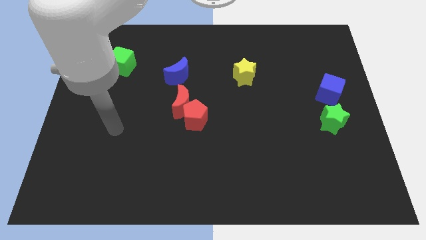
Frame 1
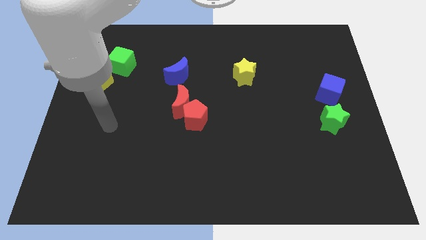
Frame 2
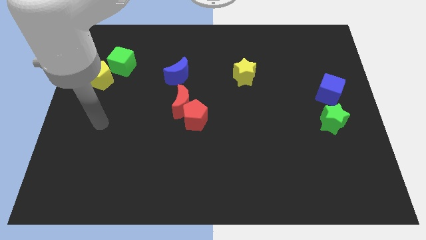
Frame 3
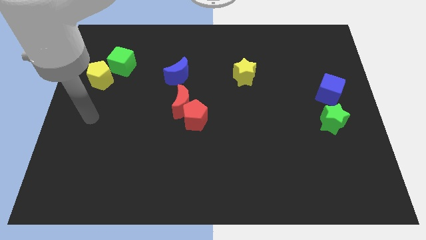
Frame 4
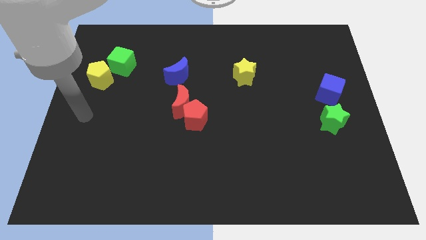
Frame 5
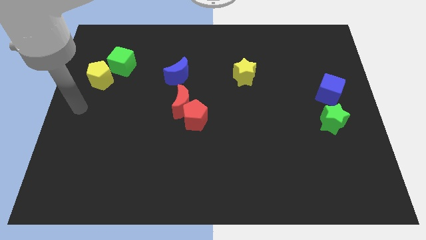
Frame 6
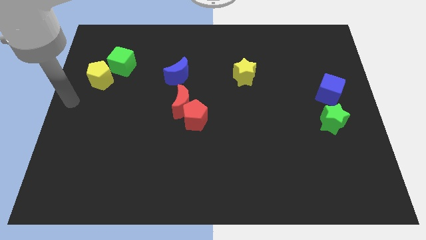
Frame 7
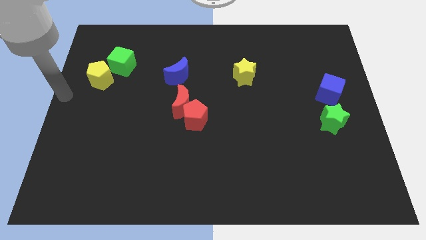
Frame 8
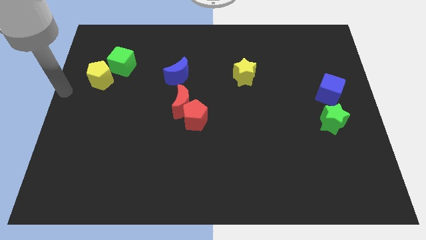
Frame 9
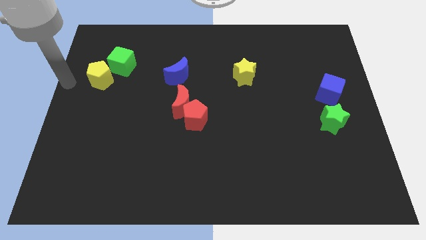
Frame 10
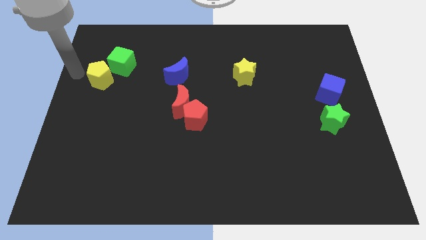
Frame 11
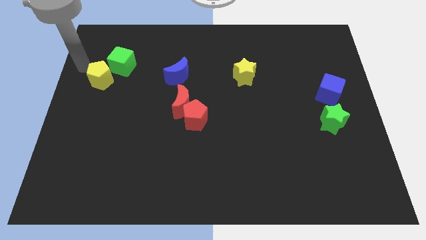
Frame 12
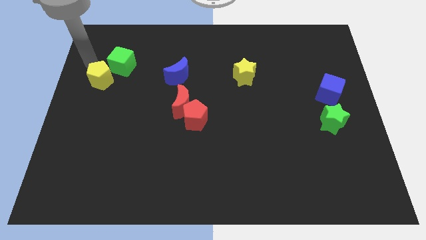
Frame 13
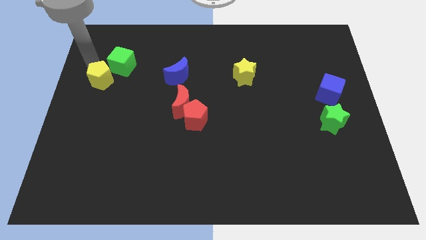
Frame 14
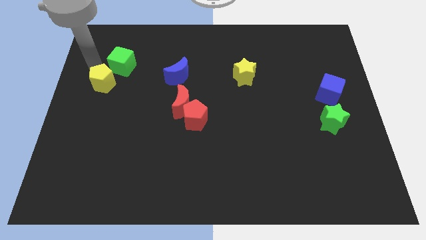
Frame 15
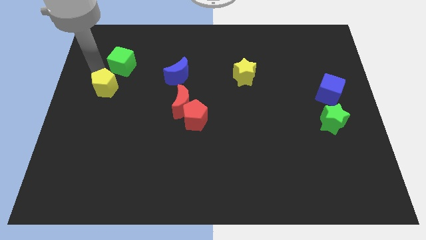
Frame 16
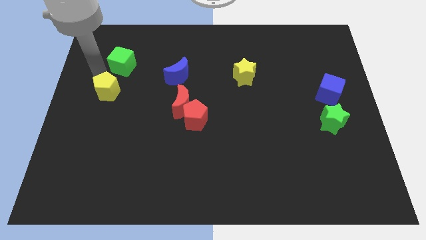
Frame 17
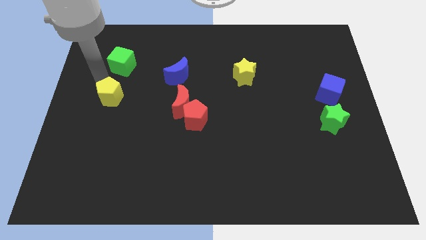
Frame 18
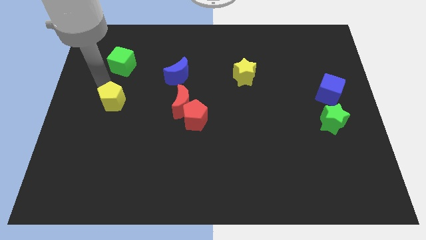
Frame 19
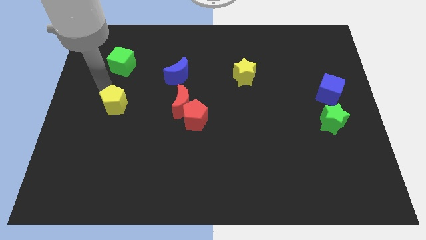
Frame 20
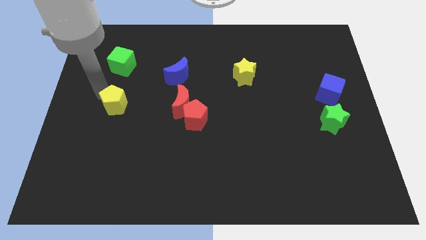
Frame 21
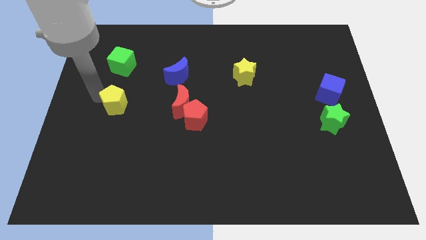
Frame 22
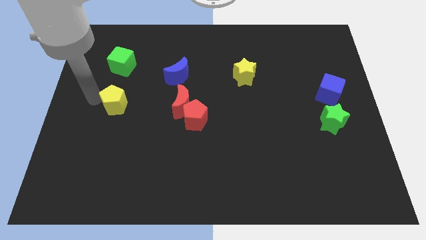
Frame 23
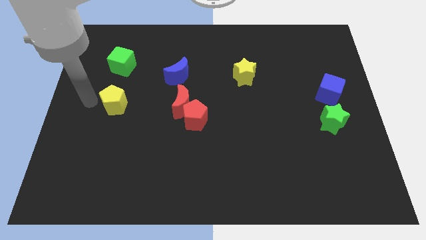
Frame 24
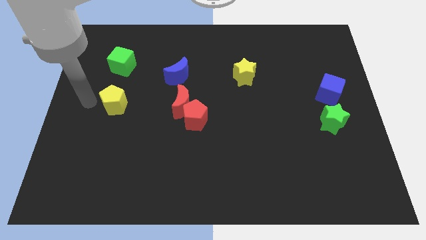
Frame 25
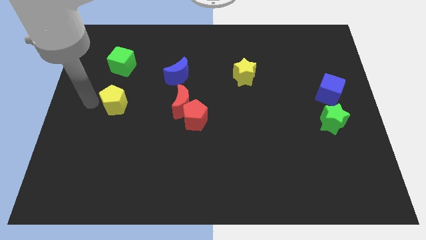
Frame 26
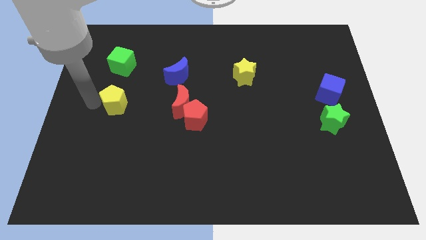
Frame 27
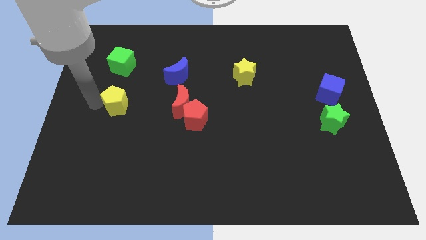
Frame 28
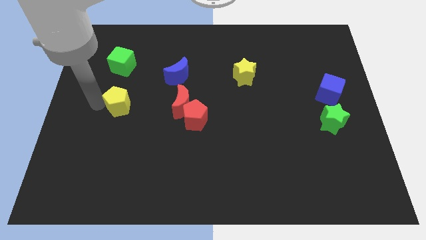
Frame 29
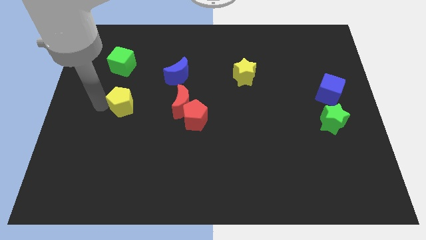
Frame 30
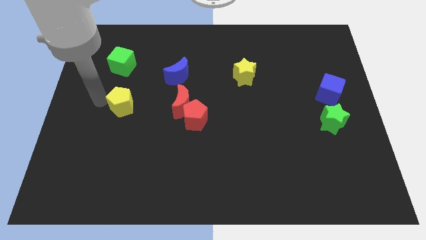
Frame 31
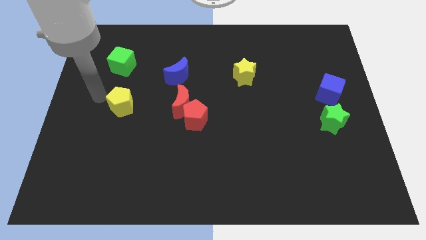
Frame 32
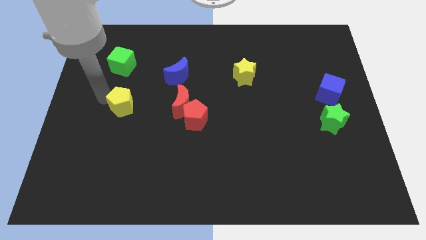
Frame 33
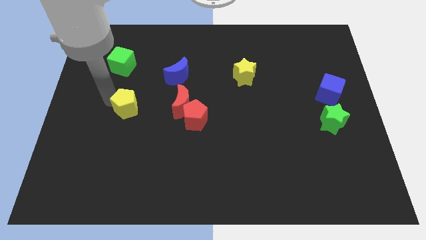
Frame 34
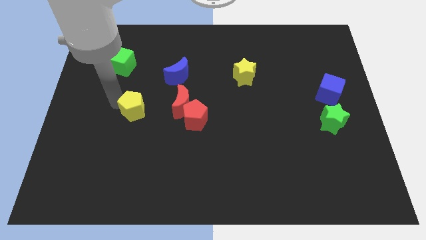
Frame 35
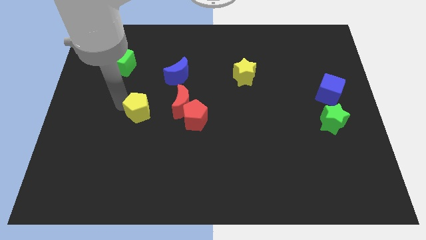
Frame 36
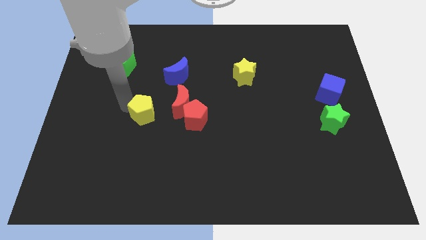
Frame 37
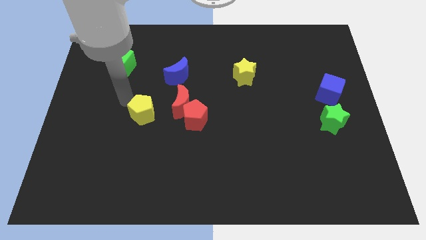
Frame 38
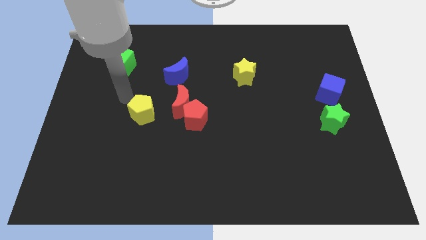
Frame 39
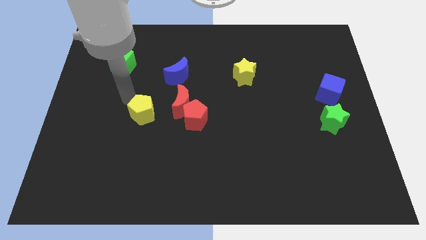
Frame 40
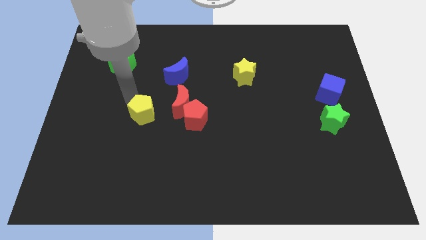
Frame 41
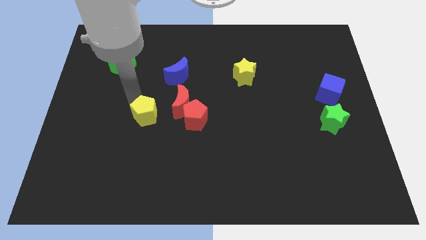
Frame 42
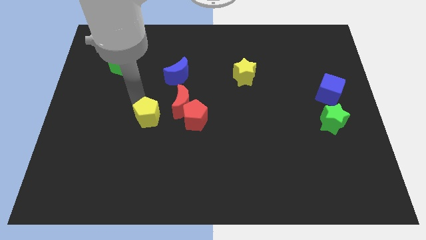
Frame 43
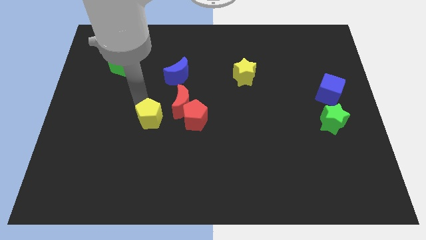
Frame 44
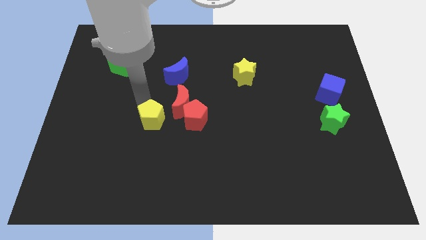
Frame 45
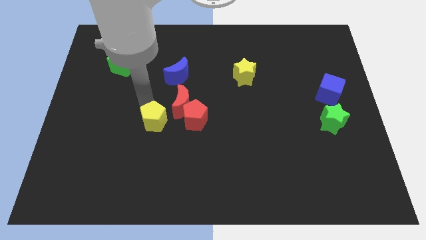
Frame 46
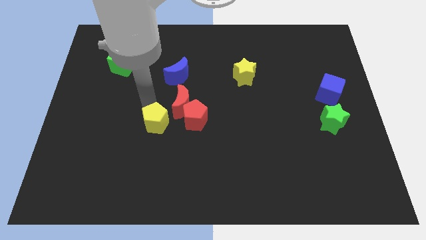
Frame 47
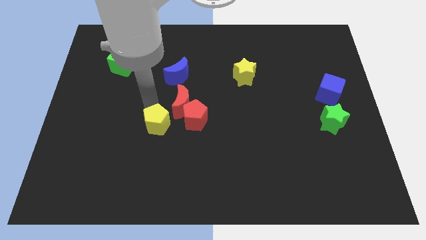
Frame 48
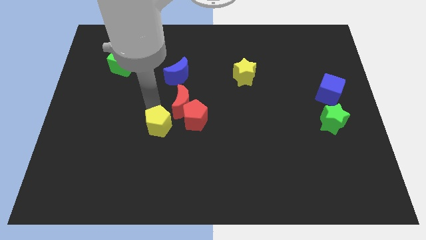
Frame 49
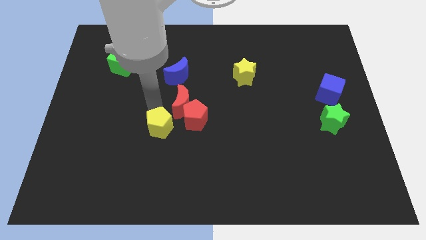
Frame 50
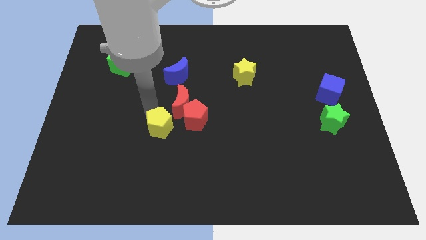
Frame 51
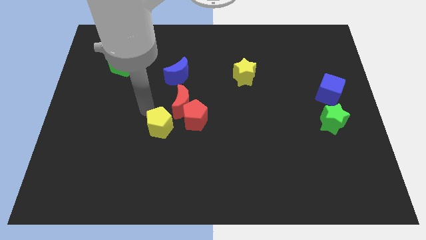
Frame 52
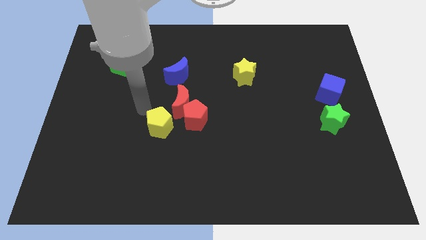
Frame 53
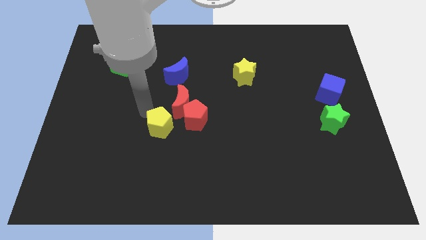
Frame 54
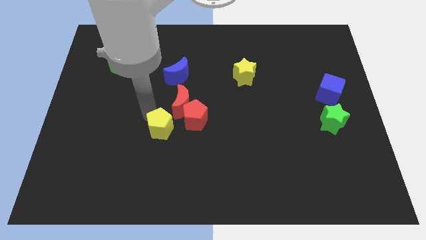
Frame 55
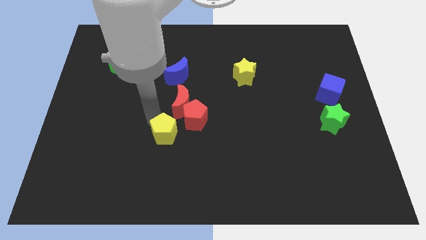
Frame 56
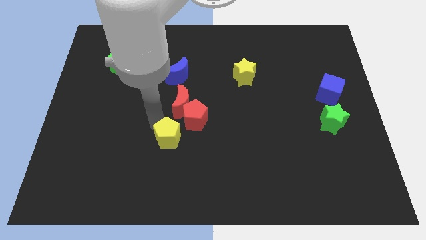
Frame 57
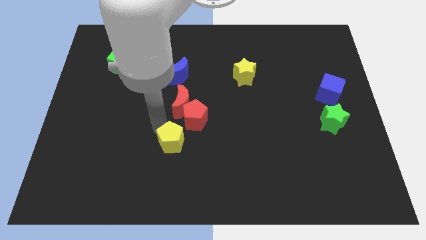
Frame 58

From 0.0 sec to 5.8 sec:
put the yellow pentagon to the bottom of the red pentagon

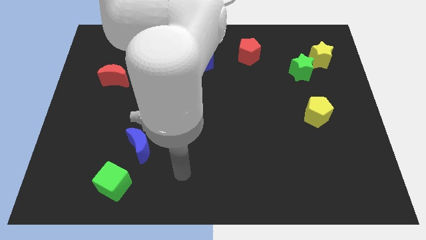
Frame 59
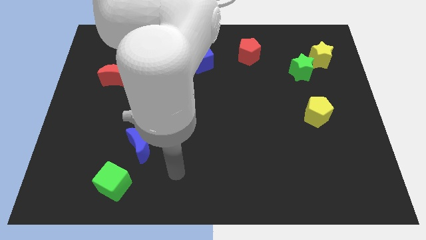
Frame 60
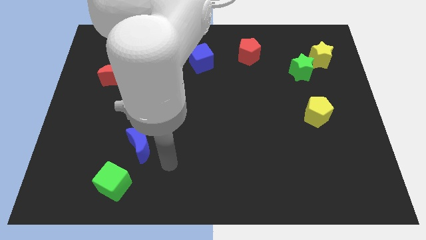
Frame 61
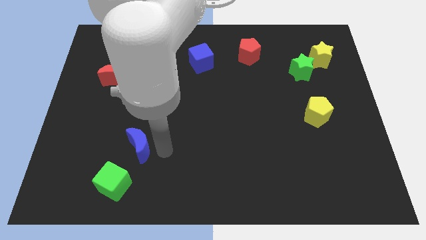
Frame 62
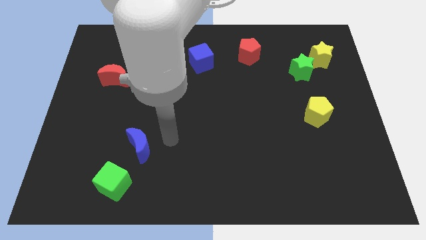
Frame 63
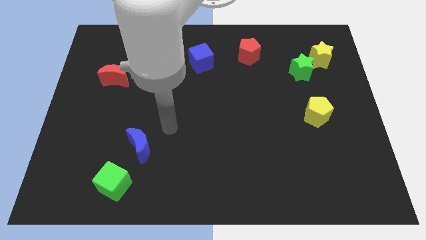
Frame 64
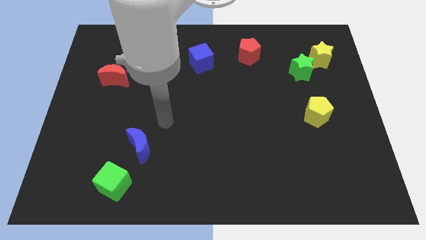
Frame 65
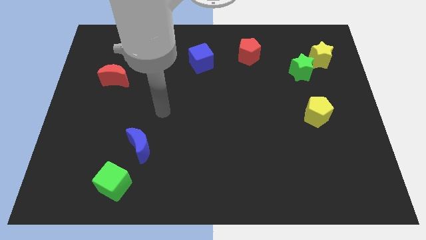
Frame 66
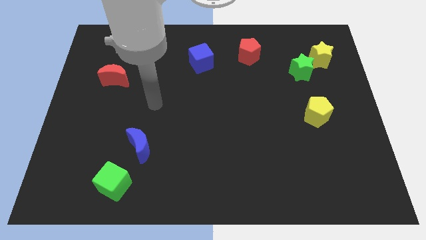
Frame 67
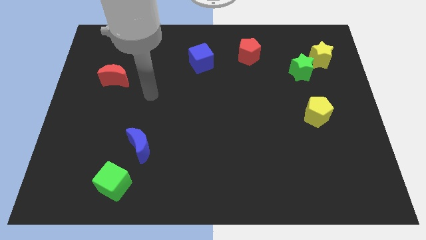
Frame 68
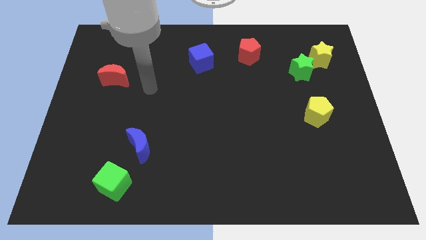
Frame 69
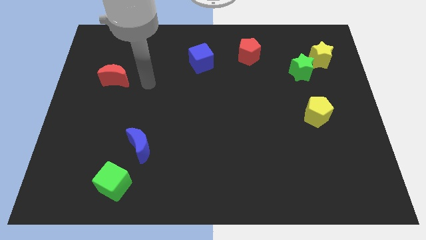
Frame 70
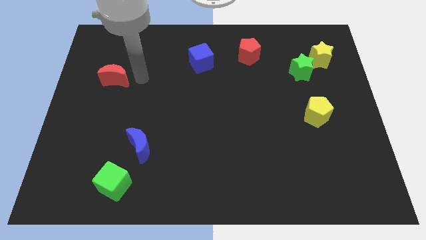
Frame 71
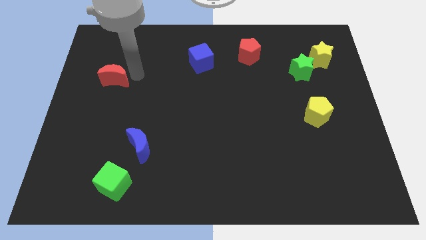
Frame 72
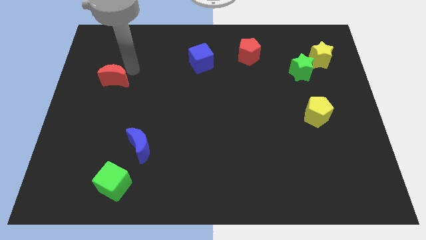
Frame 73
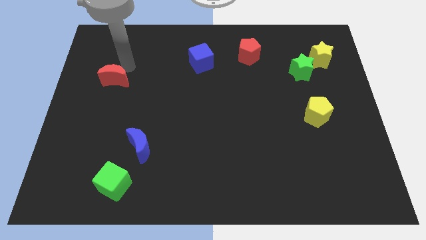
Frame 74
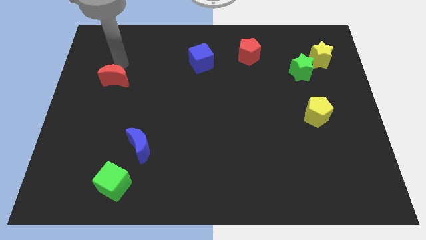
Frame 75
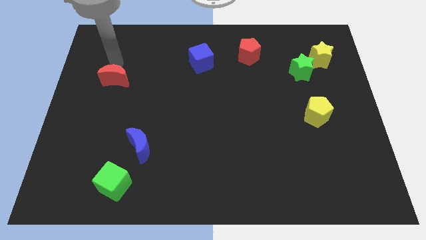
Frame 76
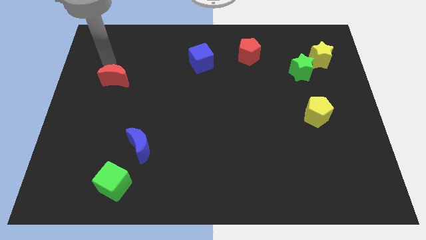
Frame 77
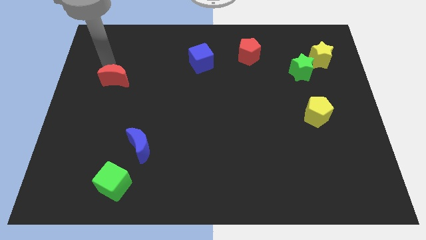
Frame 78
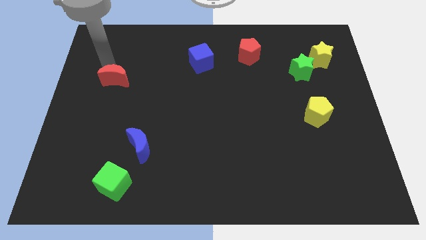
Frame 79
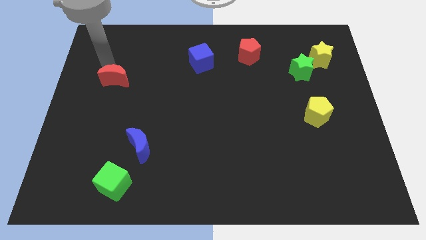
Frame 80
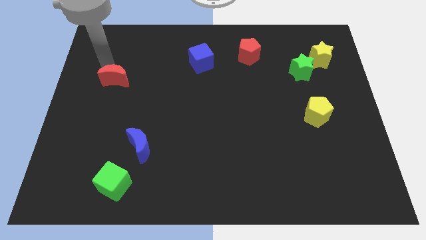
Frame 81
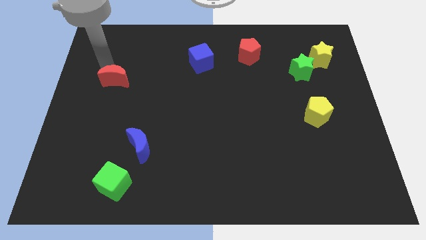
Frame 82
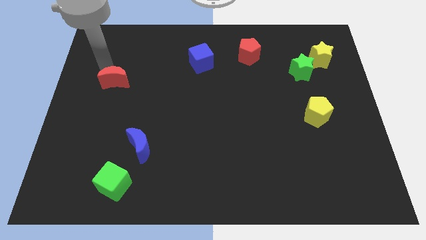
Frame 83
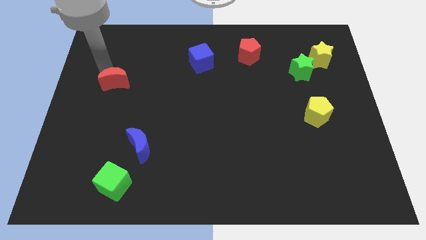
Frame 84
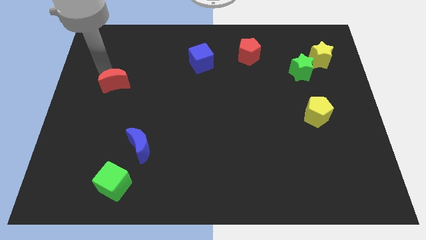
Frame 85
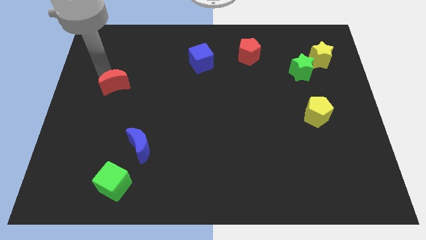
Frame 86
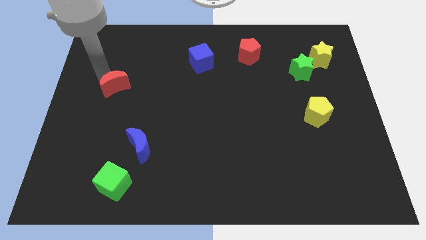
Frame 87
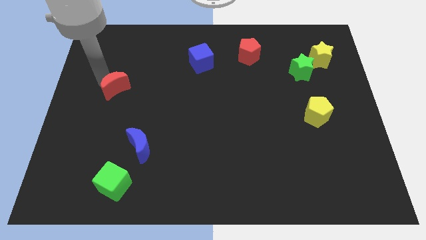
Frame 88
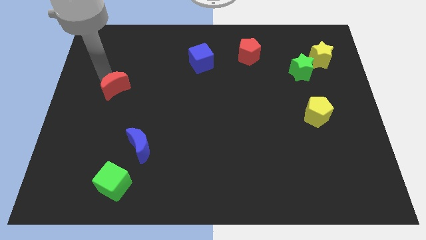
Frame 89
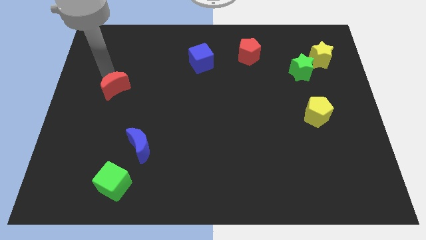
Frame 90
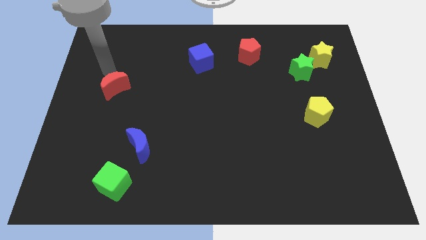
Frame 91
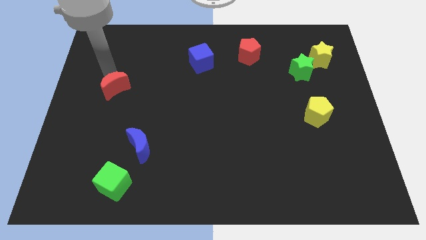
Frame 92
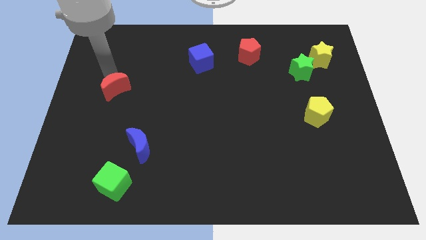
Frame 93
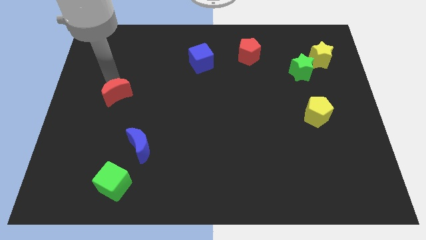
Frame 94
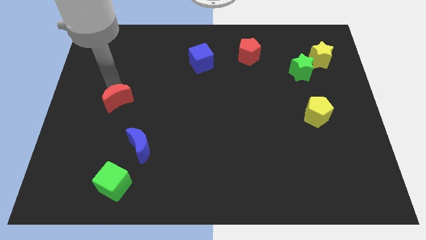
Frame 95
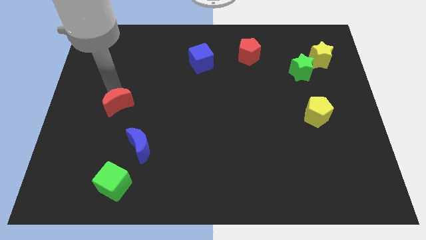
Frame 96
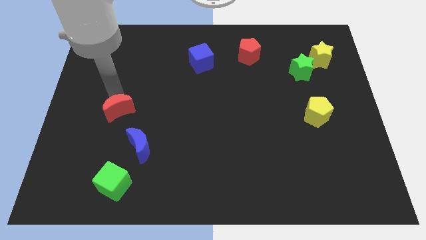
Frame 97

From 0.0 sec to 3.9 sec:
push the red moon to the top left side of the blue moon
